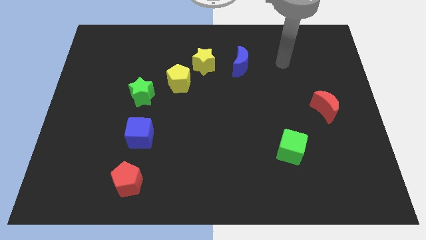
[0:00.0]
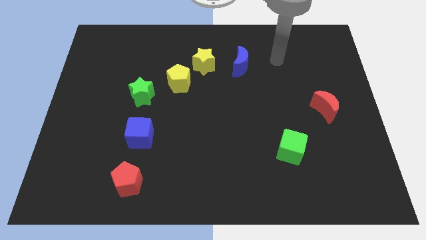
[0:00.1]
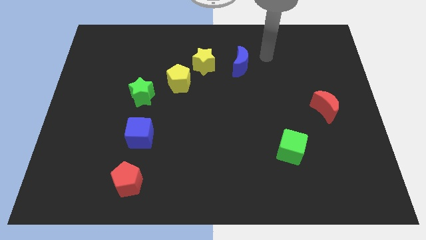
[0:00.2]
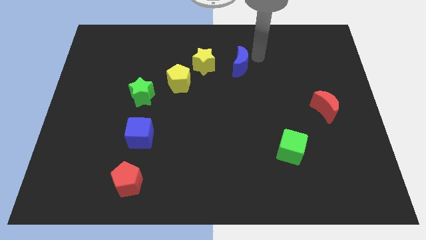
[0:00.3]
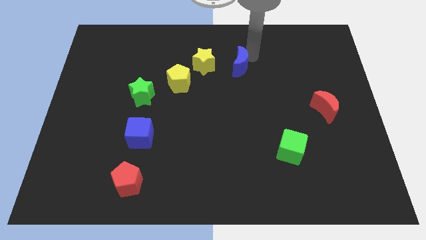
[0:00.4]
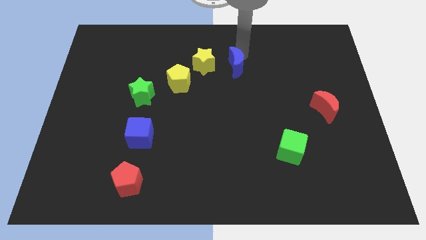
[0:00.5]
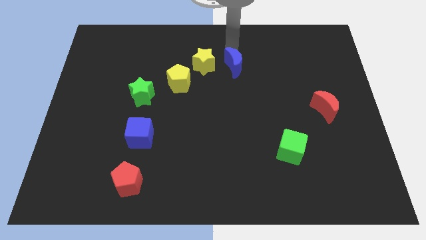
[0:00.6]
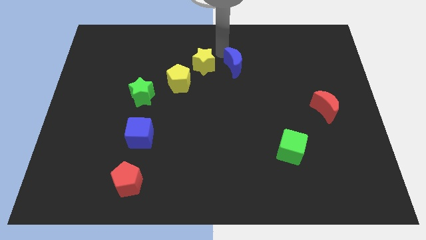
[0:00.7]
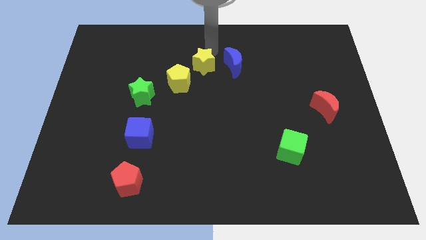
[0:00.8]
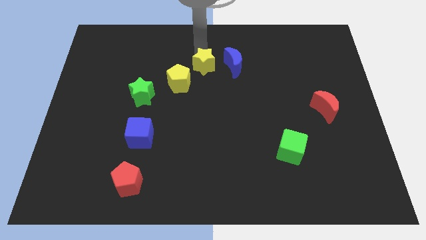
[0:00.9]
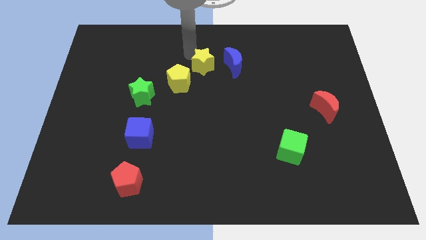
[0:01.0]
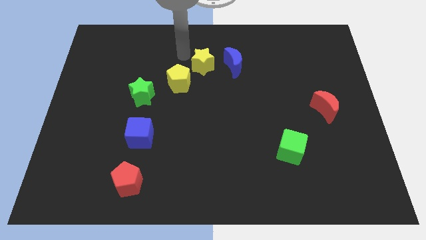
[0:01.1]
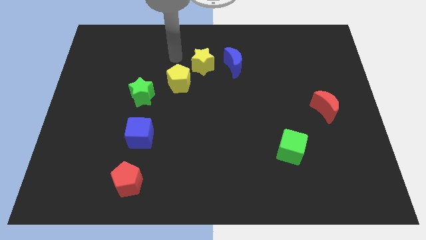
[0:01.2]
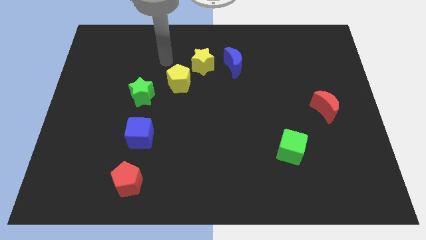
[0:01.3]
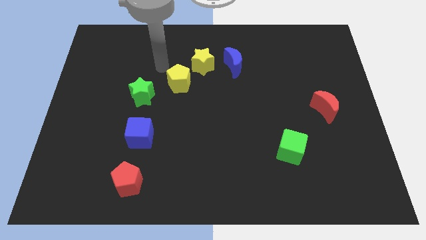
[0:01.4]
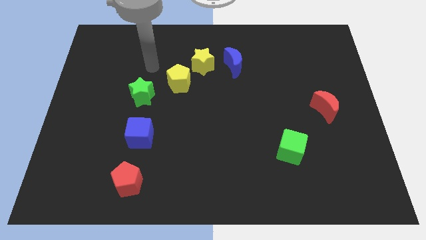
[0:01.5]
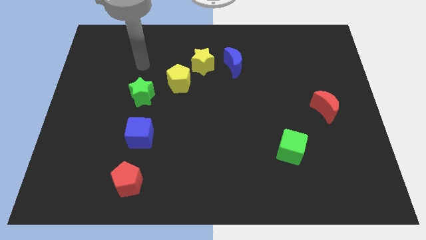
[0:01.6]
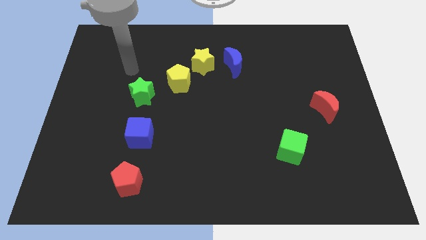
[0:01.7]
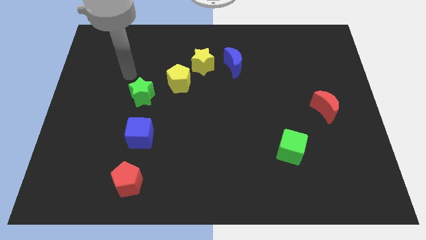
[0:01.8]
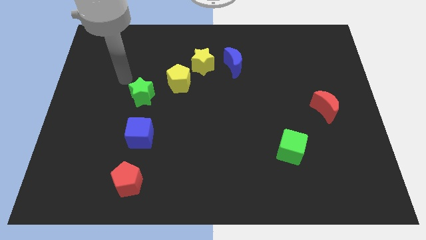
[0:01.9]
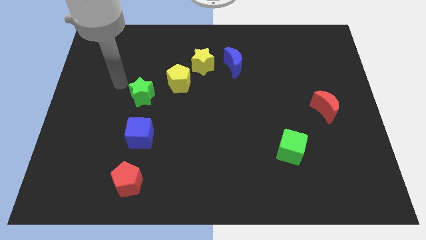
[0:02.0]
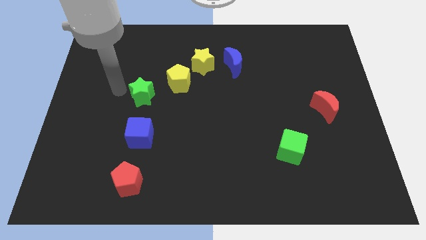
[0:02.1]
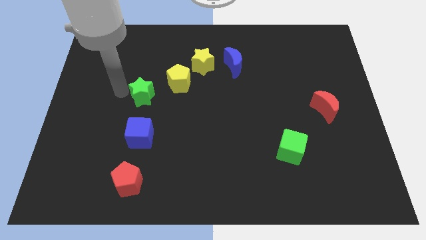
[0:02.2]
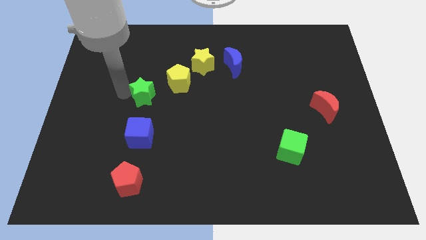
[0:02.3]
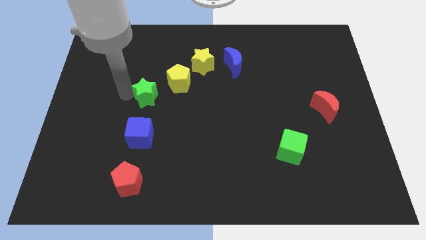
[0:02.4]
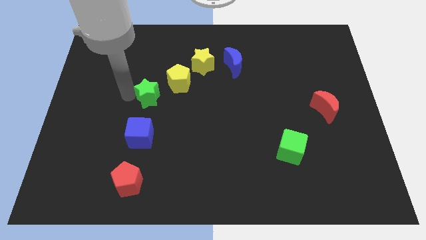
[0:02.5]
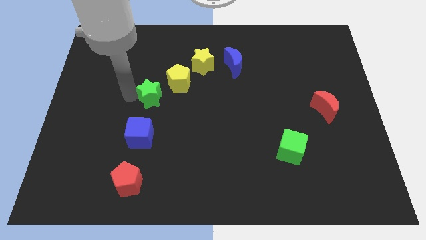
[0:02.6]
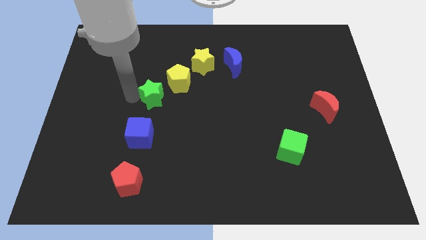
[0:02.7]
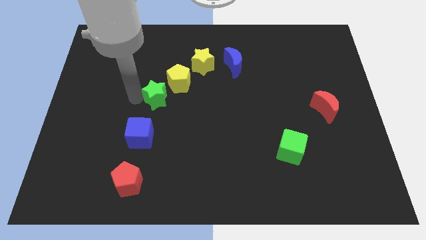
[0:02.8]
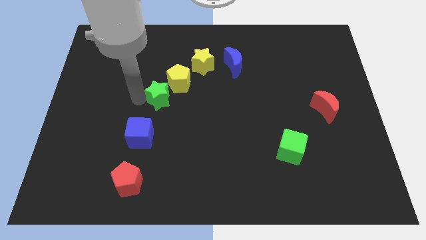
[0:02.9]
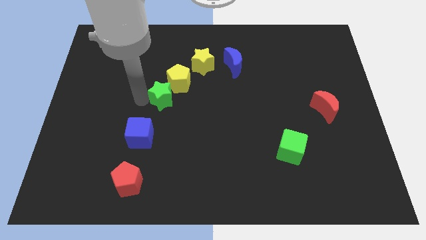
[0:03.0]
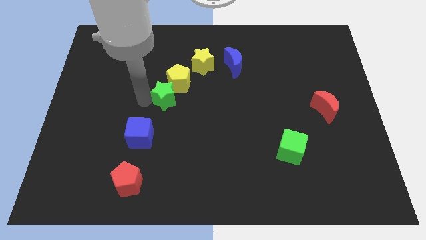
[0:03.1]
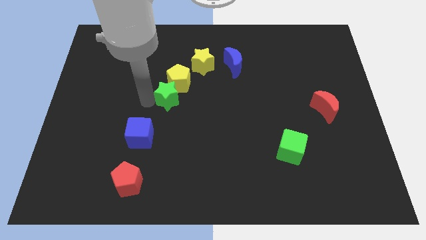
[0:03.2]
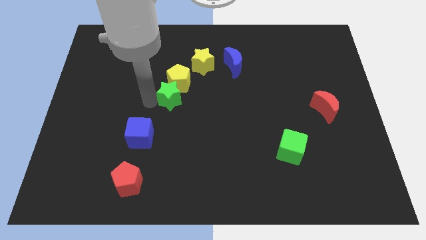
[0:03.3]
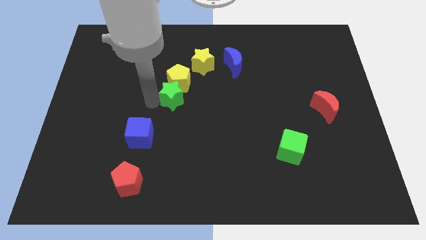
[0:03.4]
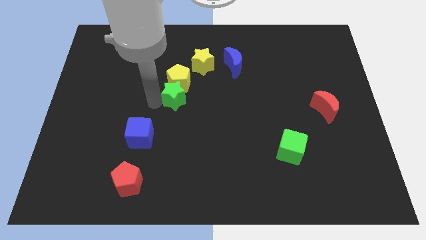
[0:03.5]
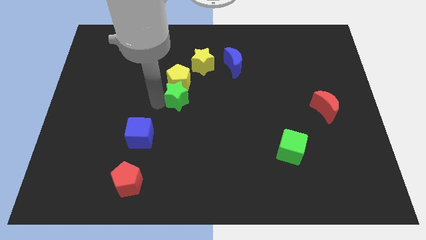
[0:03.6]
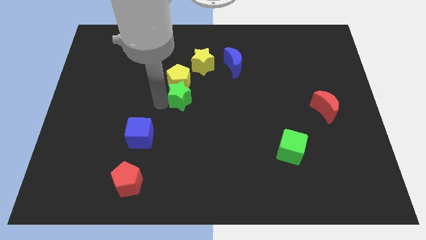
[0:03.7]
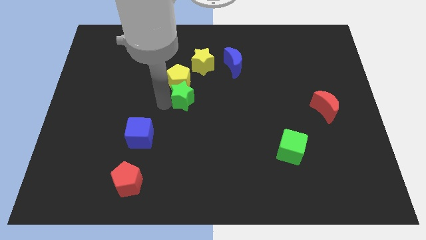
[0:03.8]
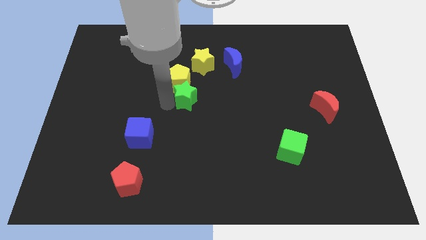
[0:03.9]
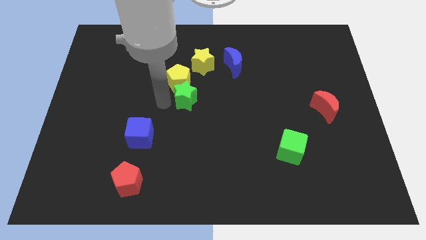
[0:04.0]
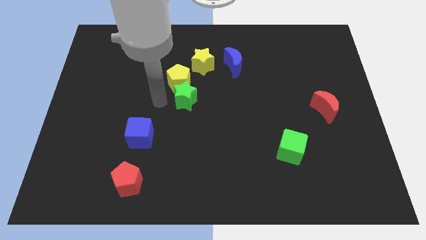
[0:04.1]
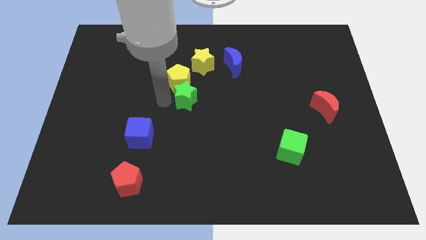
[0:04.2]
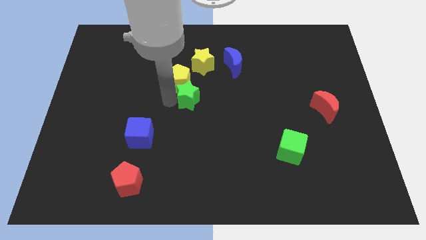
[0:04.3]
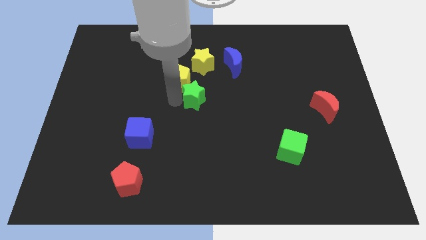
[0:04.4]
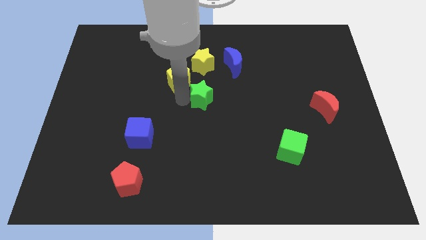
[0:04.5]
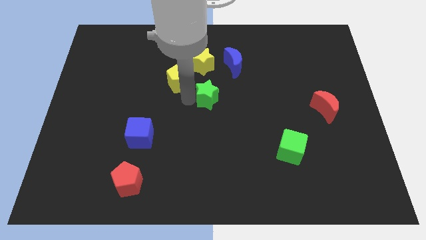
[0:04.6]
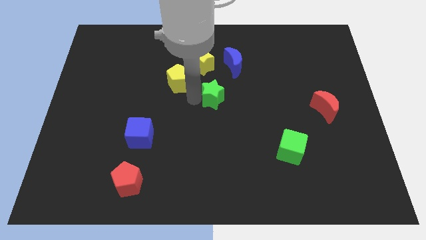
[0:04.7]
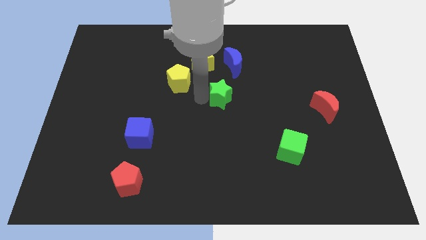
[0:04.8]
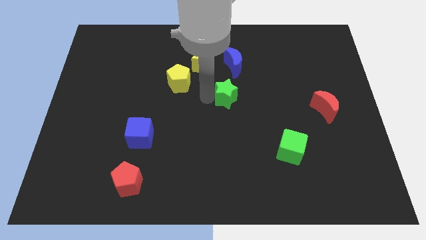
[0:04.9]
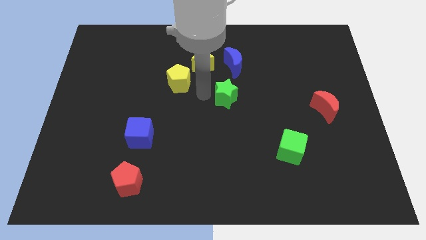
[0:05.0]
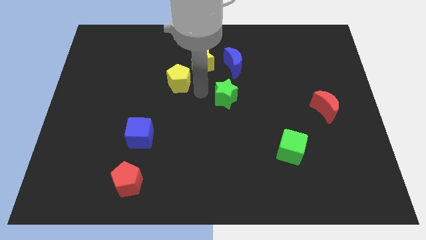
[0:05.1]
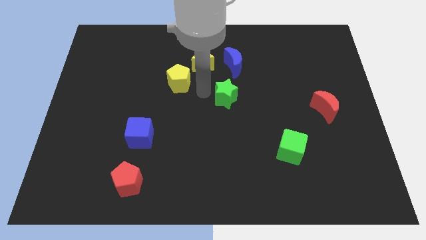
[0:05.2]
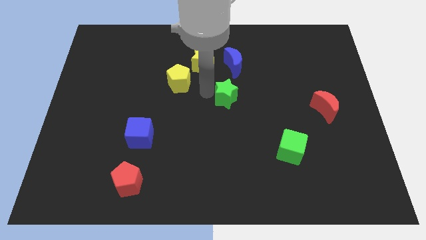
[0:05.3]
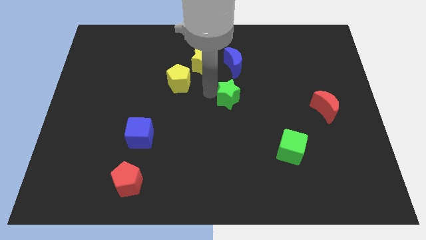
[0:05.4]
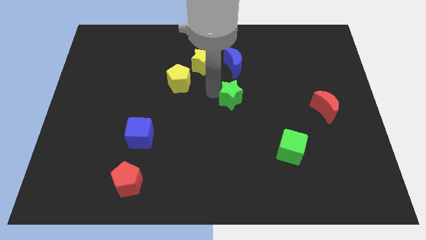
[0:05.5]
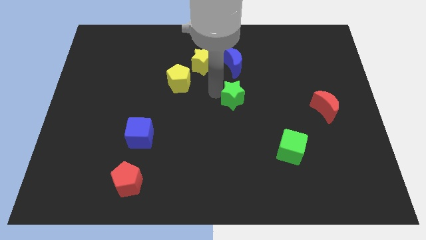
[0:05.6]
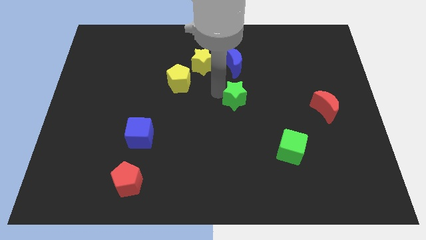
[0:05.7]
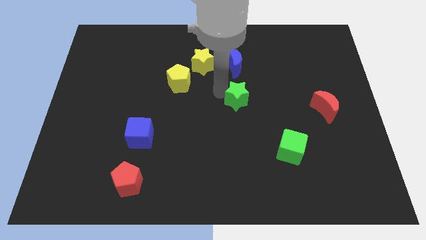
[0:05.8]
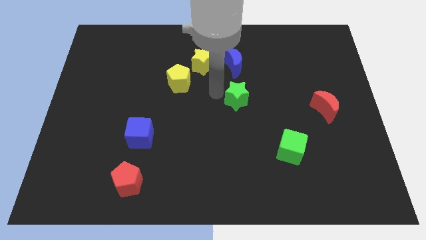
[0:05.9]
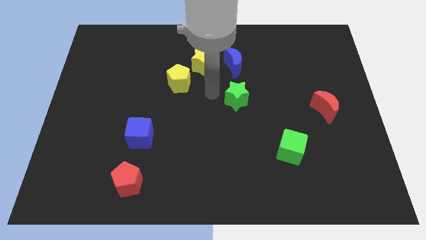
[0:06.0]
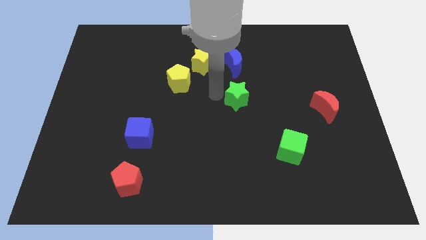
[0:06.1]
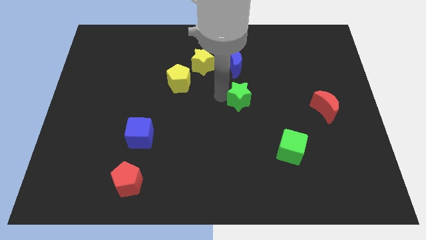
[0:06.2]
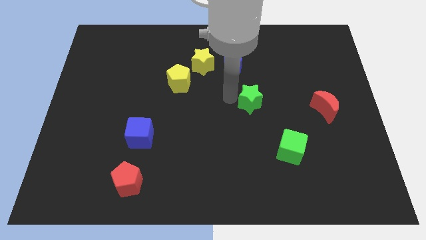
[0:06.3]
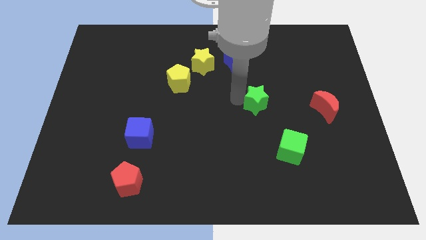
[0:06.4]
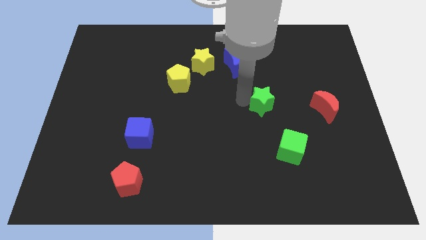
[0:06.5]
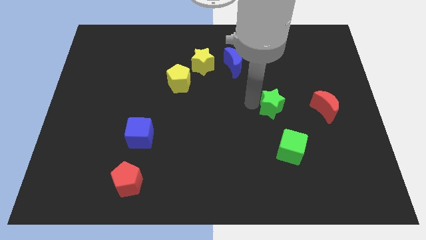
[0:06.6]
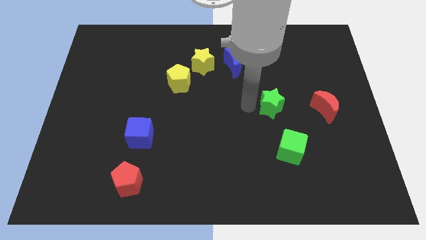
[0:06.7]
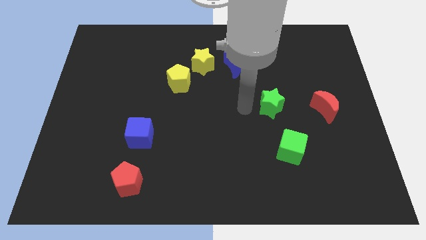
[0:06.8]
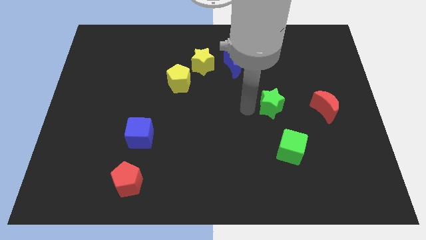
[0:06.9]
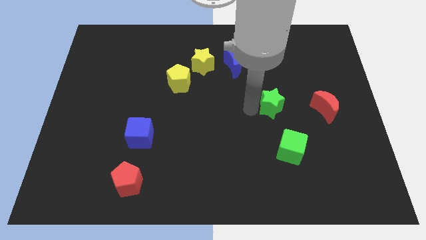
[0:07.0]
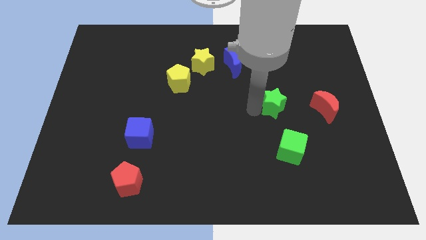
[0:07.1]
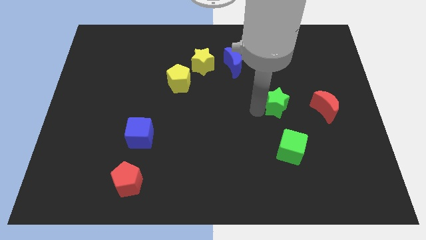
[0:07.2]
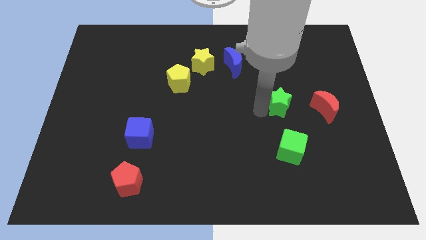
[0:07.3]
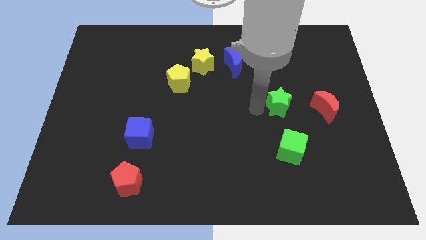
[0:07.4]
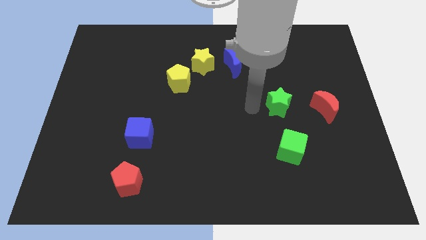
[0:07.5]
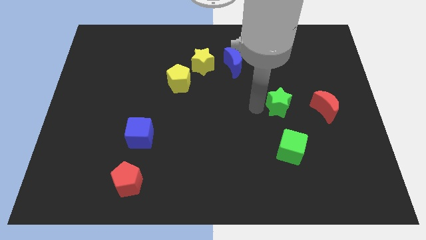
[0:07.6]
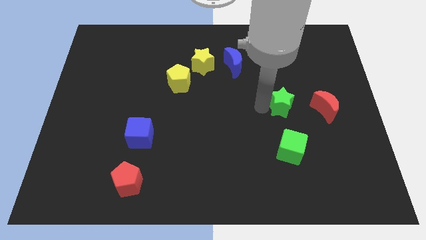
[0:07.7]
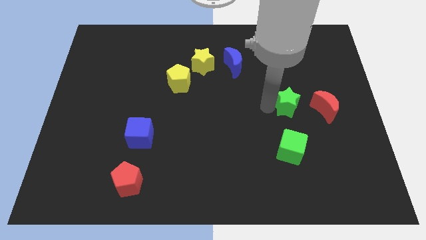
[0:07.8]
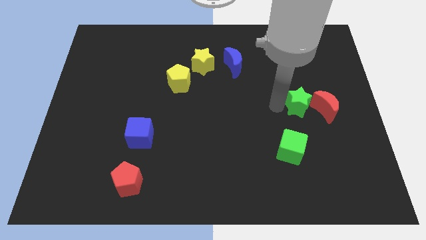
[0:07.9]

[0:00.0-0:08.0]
move the green star to the red moon
